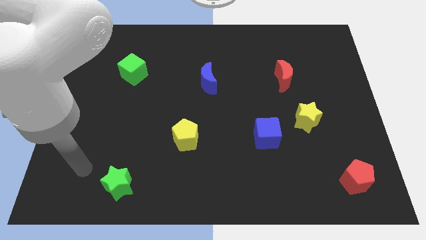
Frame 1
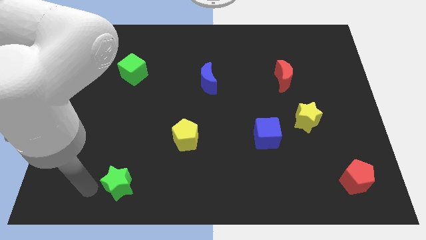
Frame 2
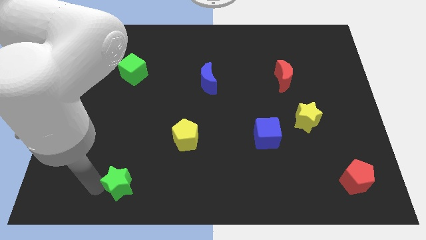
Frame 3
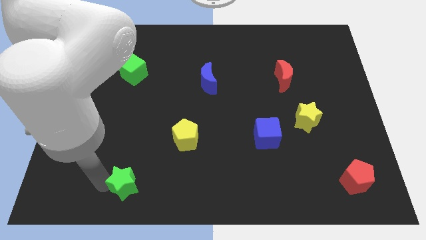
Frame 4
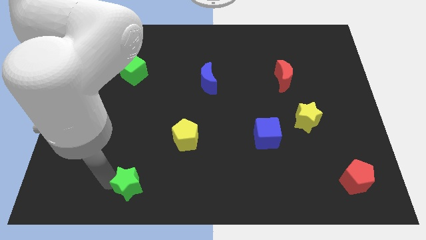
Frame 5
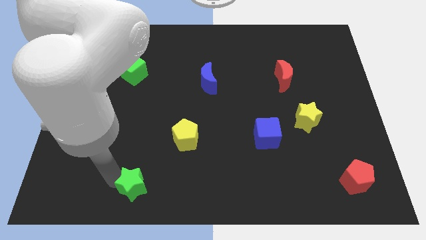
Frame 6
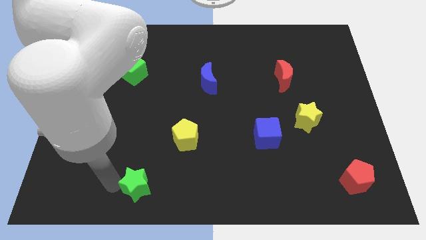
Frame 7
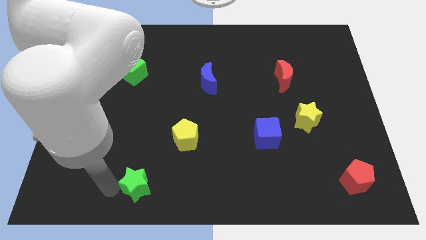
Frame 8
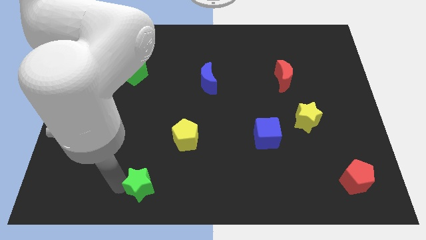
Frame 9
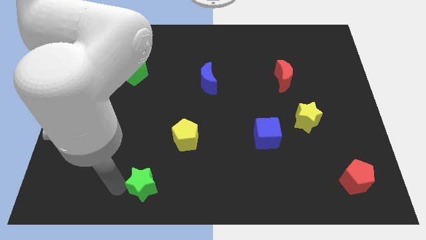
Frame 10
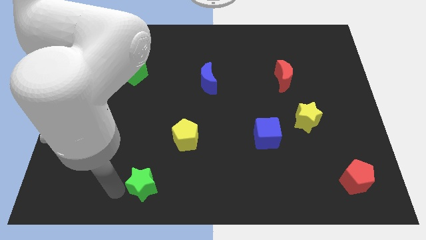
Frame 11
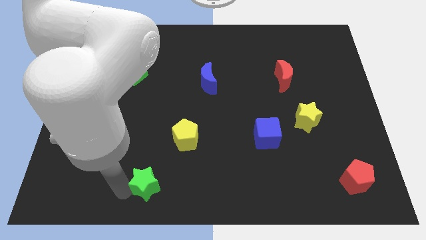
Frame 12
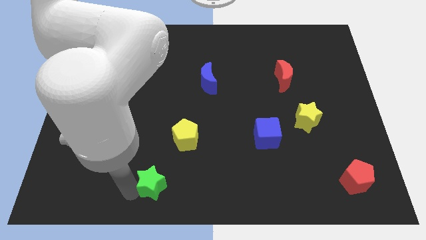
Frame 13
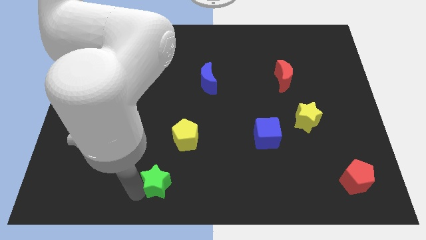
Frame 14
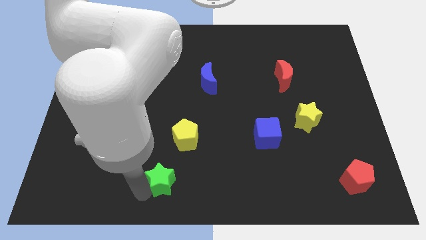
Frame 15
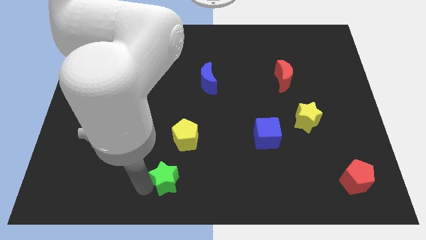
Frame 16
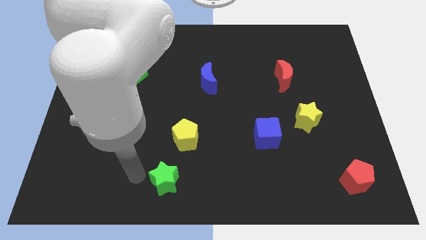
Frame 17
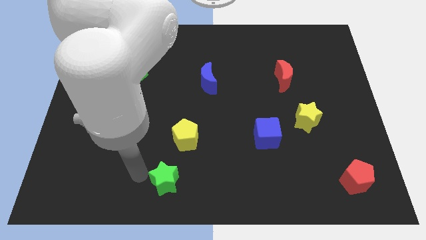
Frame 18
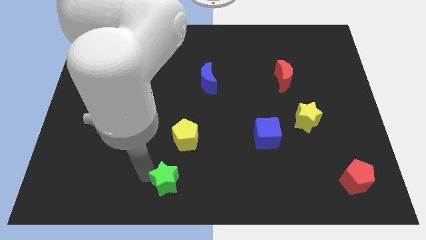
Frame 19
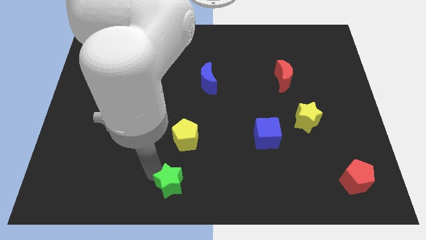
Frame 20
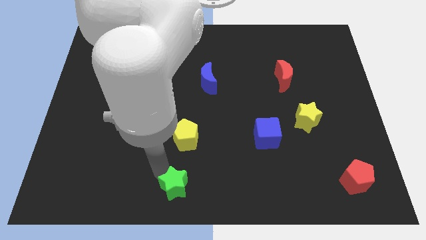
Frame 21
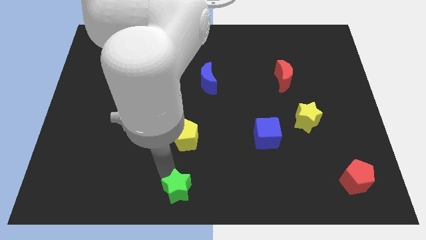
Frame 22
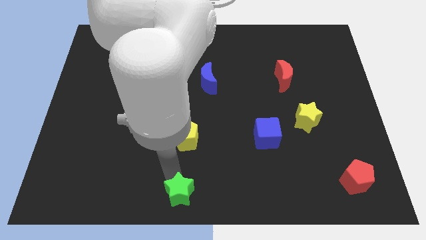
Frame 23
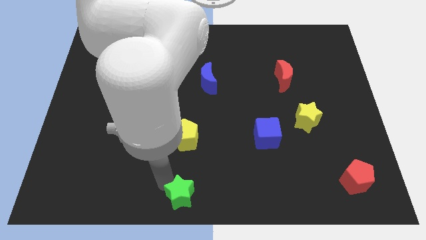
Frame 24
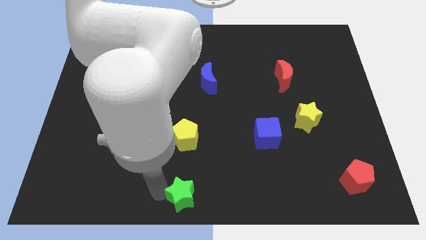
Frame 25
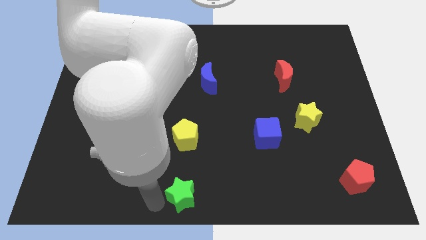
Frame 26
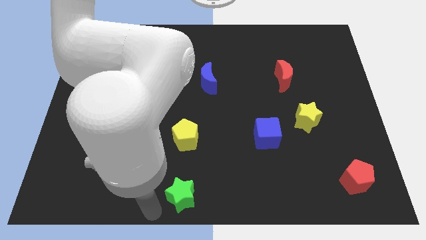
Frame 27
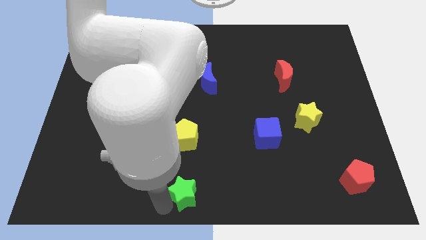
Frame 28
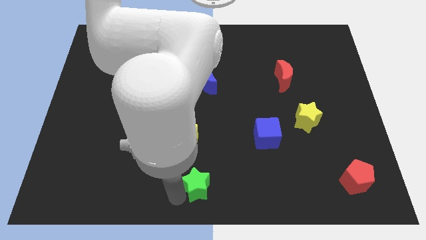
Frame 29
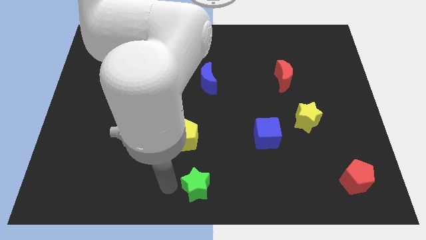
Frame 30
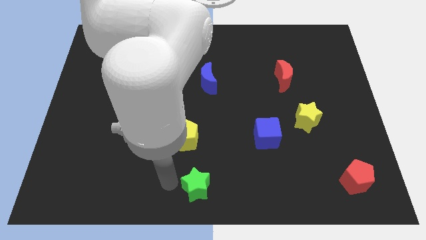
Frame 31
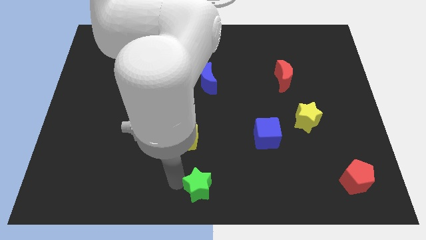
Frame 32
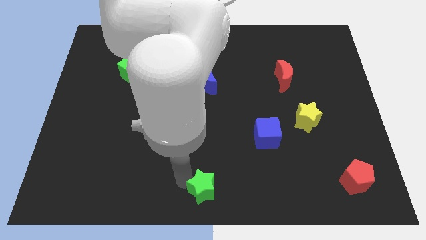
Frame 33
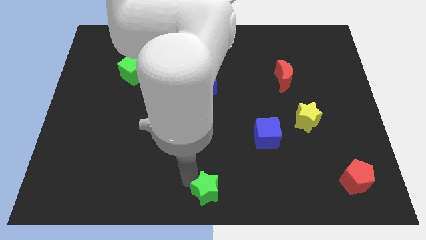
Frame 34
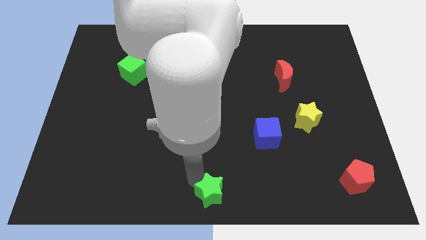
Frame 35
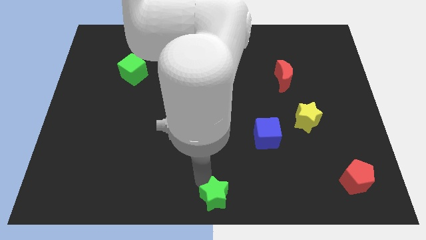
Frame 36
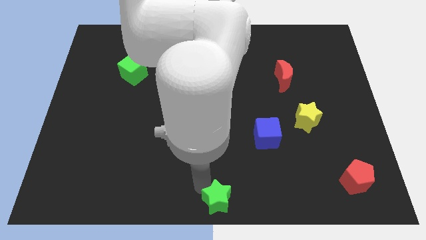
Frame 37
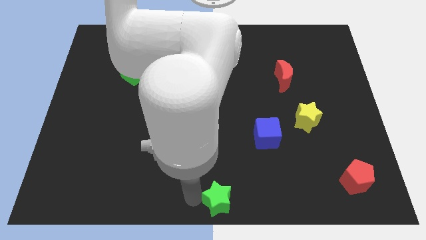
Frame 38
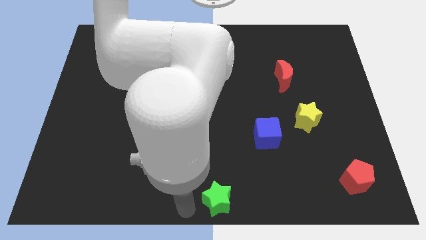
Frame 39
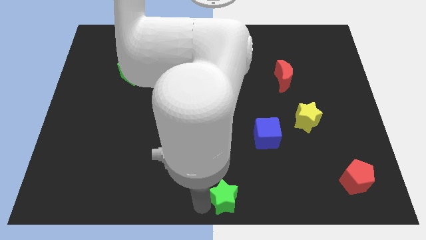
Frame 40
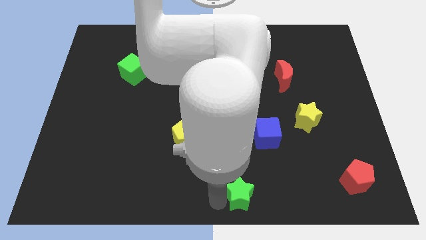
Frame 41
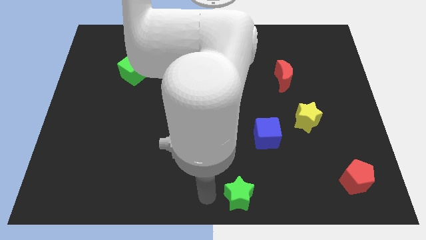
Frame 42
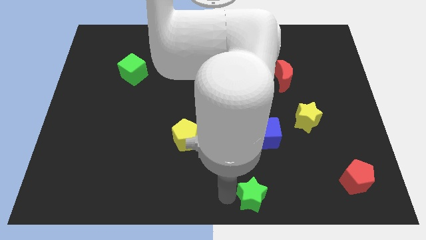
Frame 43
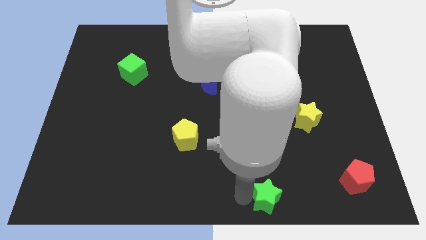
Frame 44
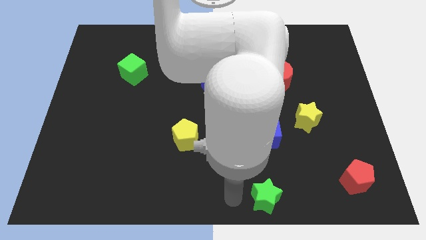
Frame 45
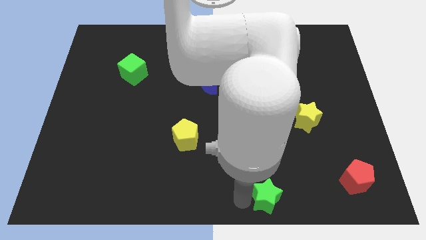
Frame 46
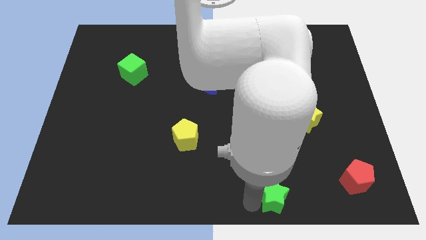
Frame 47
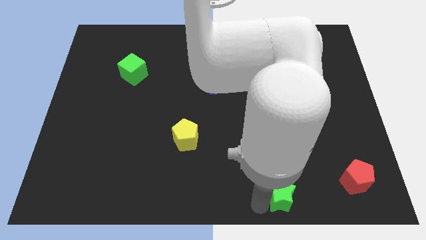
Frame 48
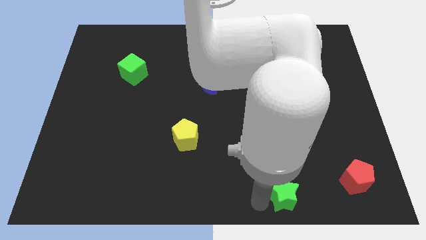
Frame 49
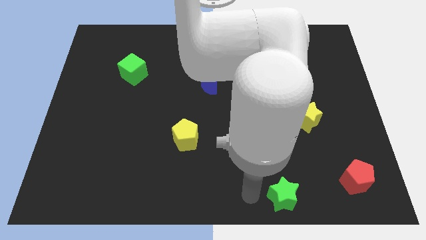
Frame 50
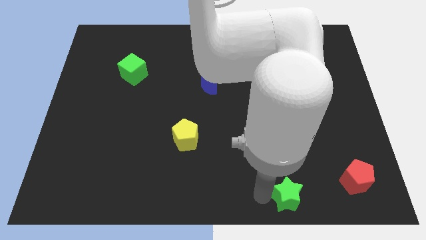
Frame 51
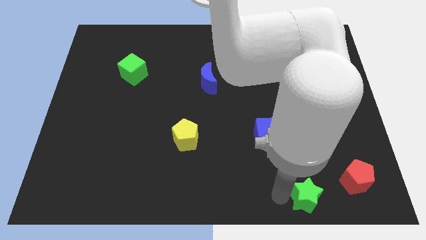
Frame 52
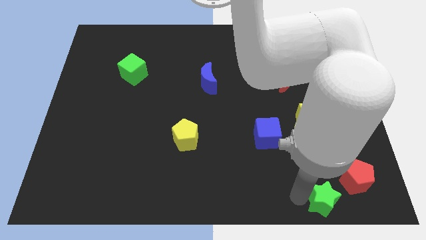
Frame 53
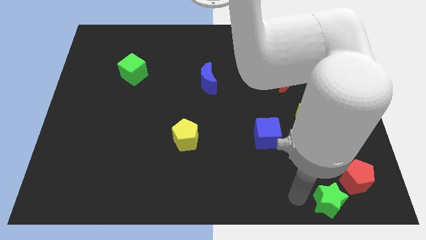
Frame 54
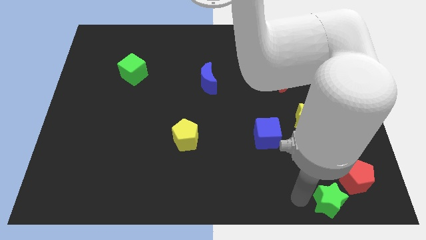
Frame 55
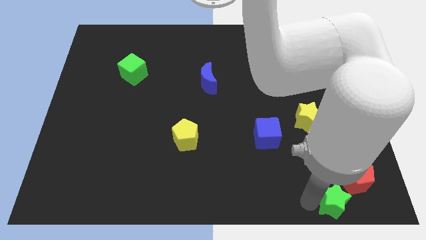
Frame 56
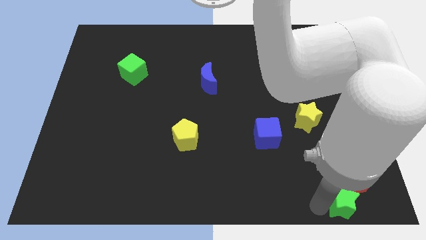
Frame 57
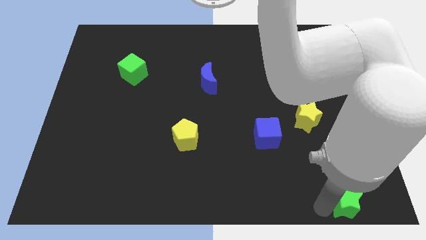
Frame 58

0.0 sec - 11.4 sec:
move the green star to the bottom right

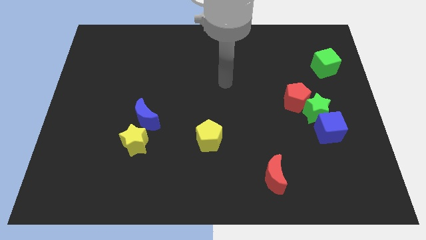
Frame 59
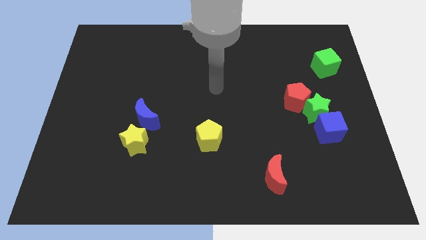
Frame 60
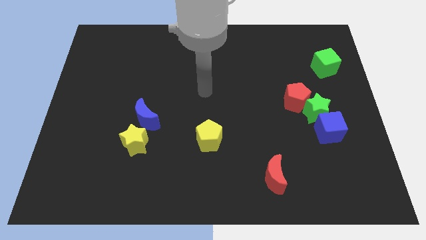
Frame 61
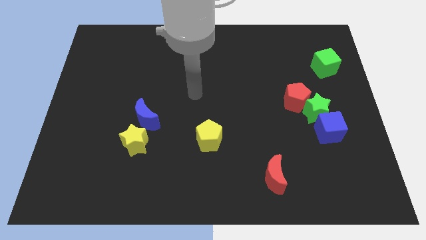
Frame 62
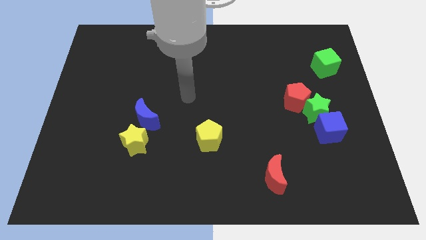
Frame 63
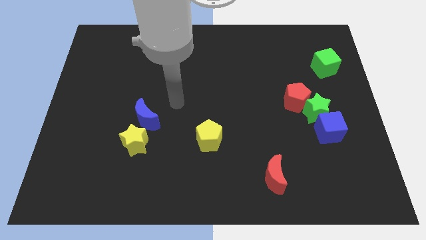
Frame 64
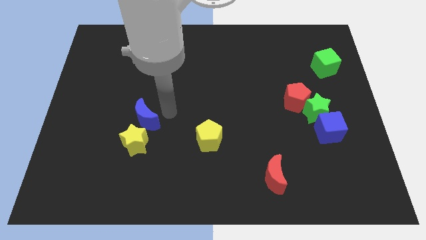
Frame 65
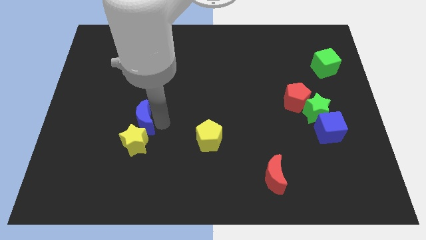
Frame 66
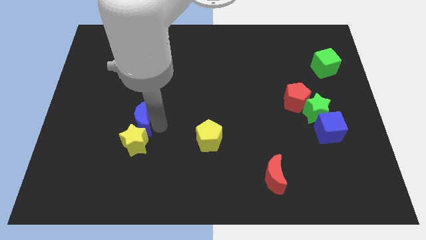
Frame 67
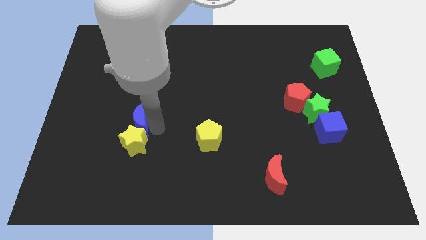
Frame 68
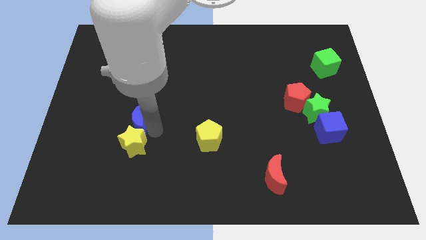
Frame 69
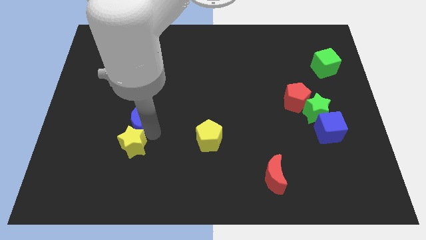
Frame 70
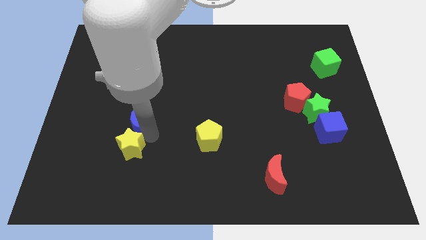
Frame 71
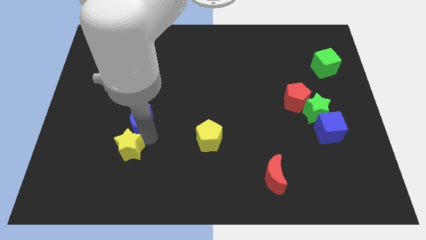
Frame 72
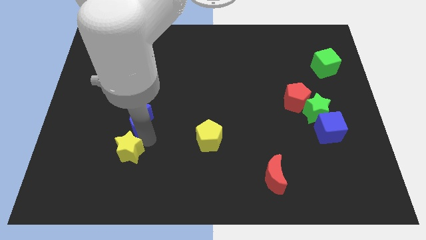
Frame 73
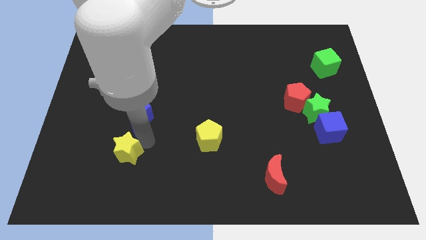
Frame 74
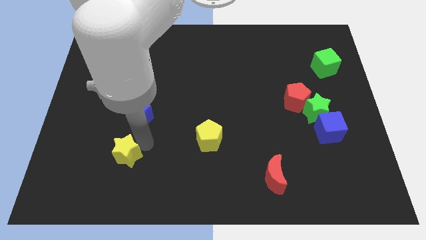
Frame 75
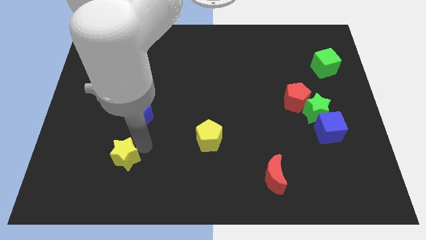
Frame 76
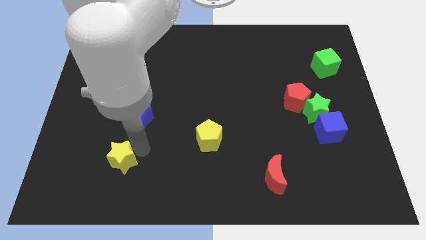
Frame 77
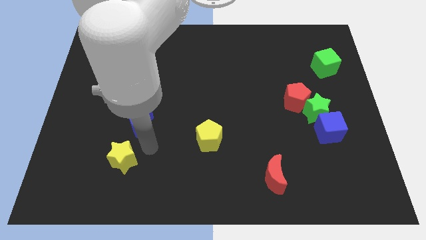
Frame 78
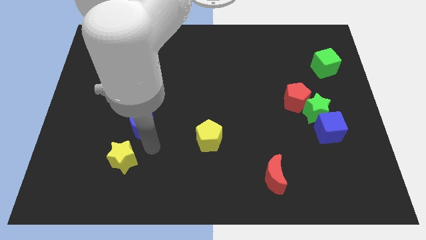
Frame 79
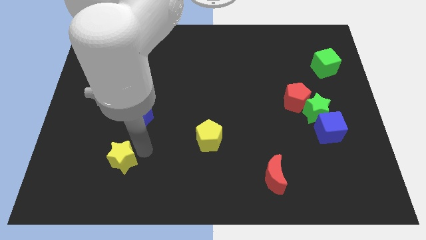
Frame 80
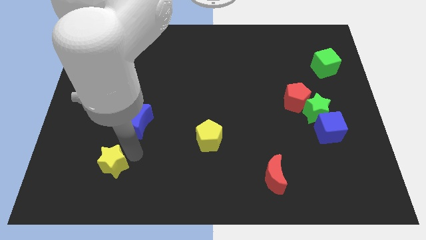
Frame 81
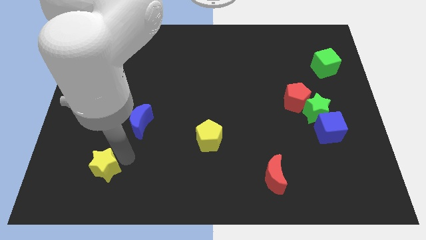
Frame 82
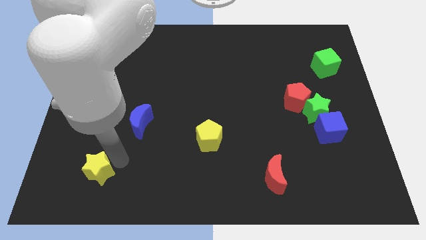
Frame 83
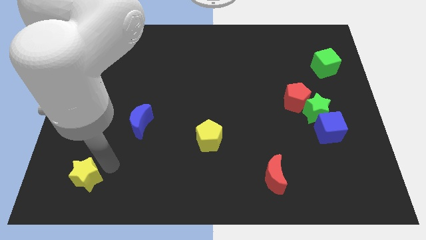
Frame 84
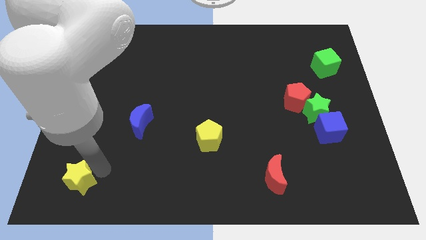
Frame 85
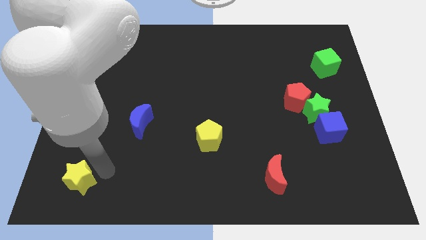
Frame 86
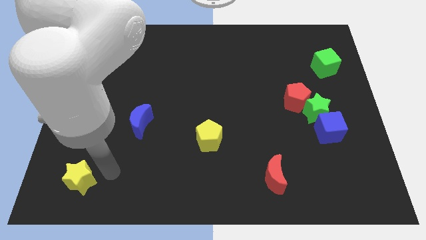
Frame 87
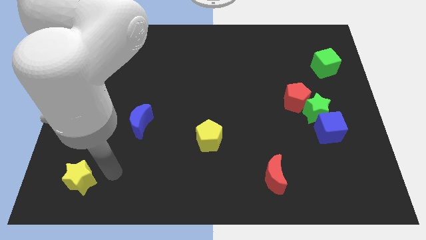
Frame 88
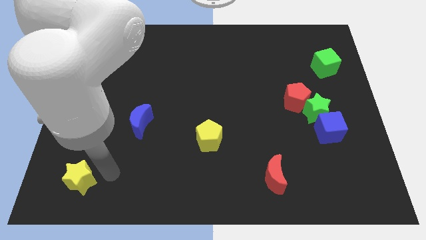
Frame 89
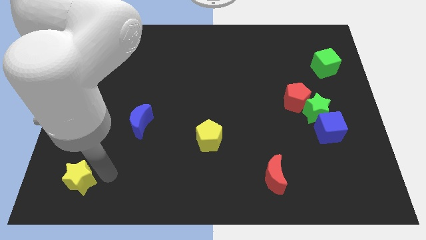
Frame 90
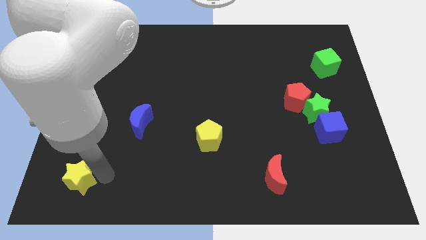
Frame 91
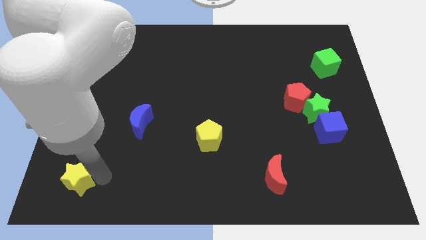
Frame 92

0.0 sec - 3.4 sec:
slide the yellow star to the bottom left corner
